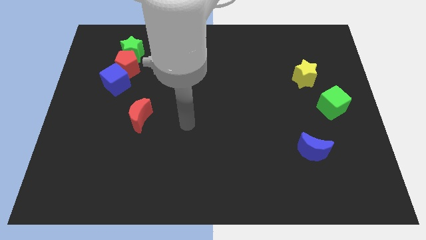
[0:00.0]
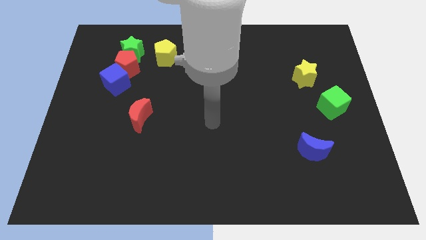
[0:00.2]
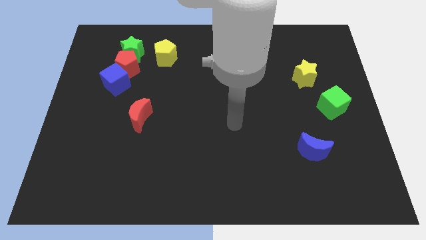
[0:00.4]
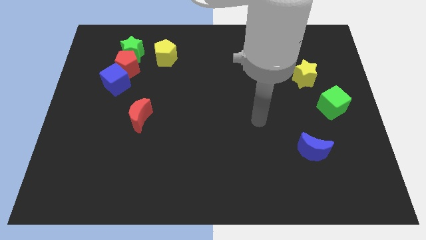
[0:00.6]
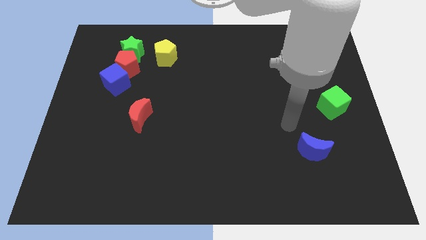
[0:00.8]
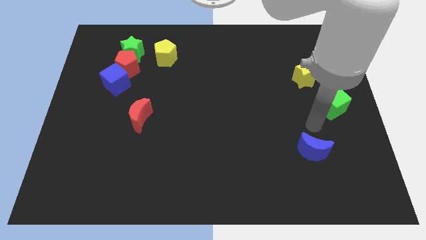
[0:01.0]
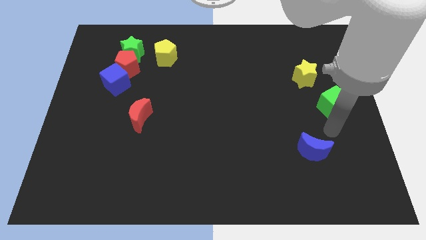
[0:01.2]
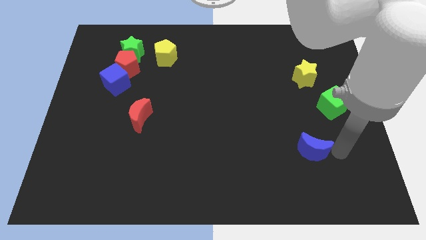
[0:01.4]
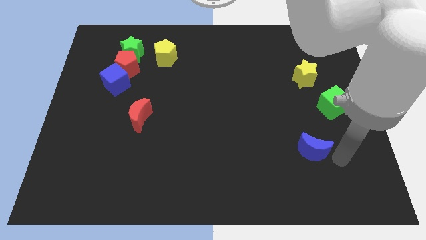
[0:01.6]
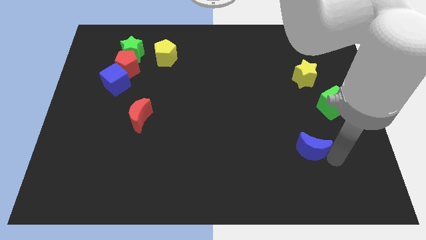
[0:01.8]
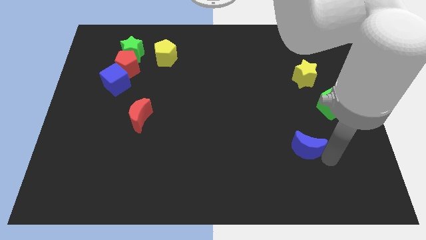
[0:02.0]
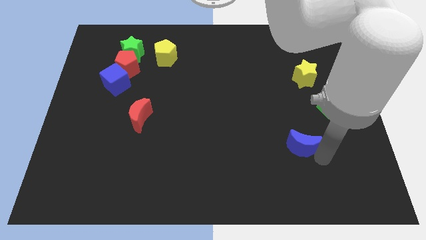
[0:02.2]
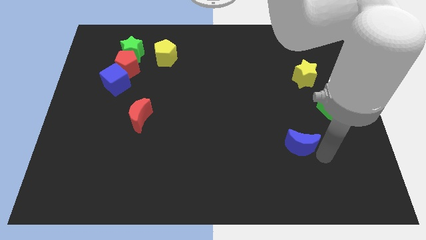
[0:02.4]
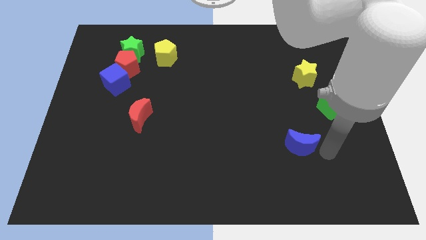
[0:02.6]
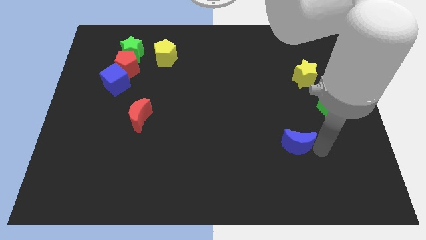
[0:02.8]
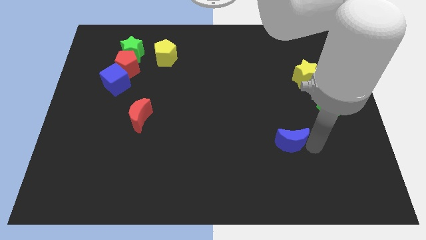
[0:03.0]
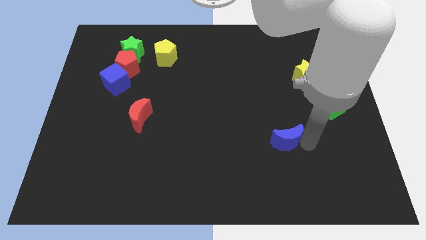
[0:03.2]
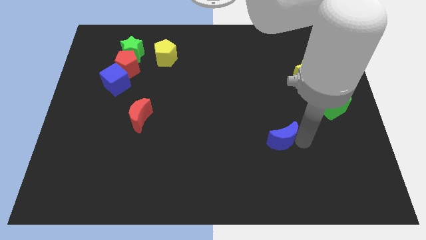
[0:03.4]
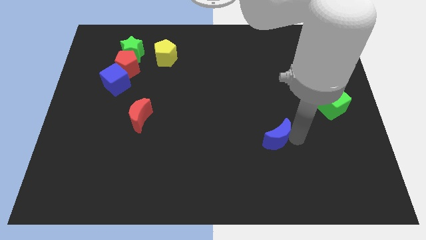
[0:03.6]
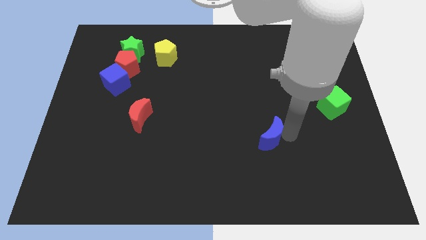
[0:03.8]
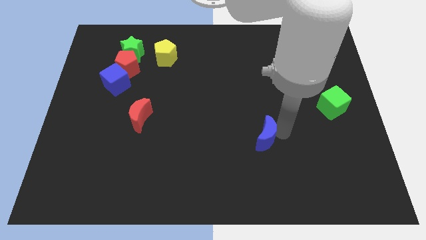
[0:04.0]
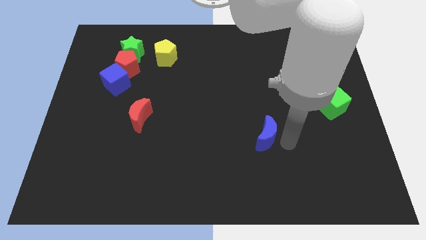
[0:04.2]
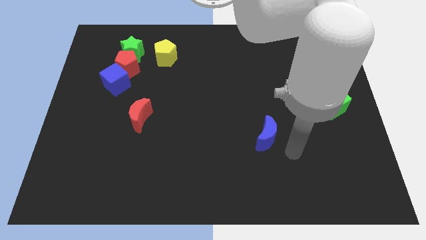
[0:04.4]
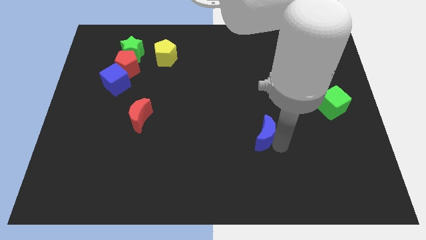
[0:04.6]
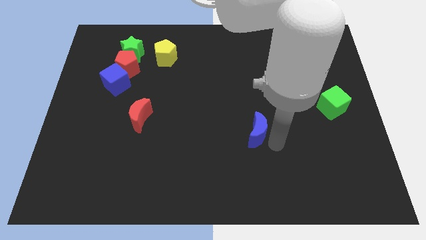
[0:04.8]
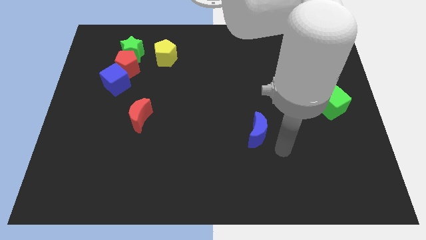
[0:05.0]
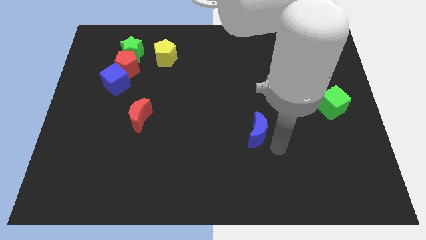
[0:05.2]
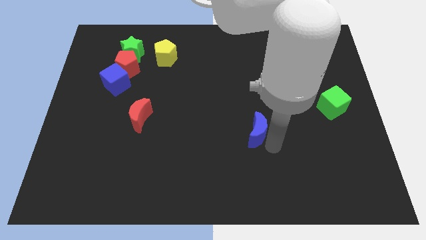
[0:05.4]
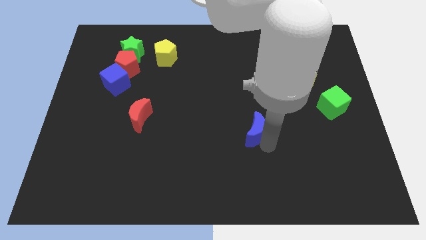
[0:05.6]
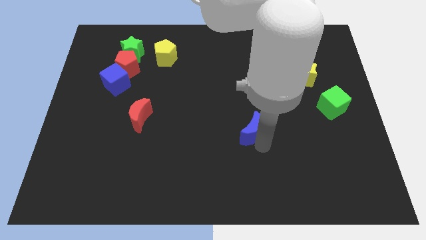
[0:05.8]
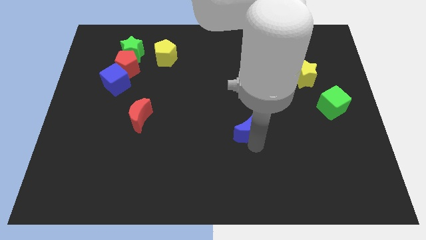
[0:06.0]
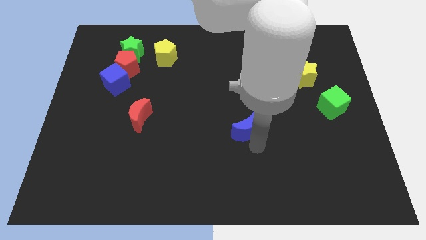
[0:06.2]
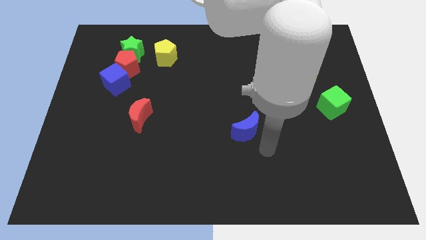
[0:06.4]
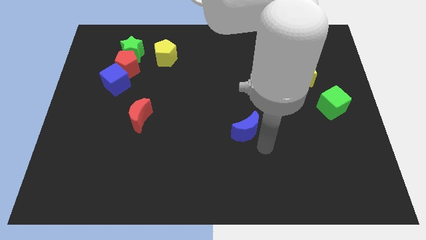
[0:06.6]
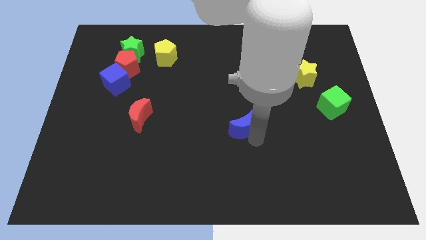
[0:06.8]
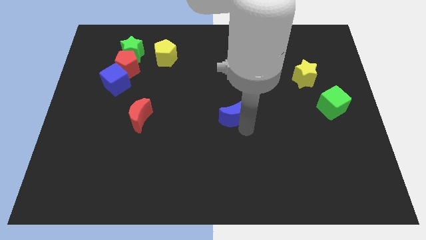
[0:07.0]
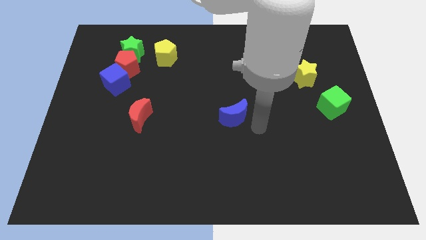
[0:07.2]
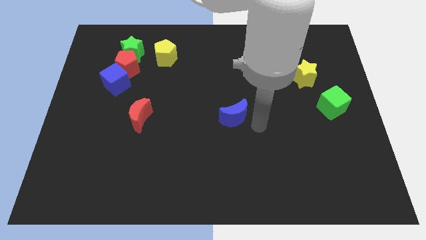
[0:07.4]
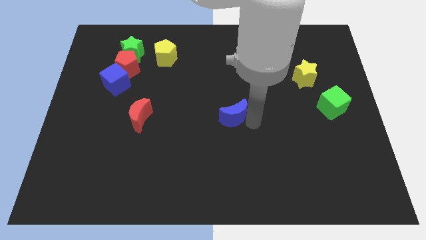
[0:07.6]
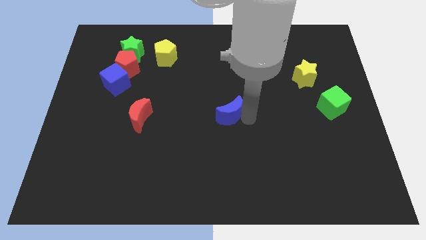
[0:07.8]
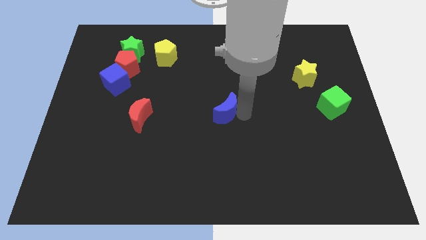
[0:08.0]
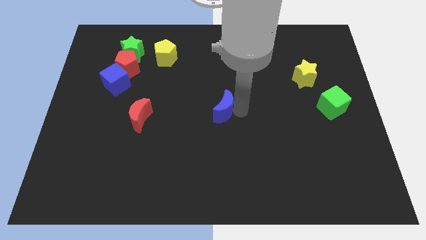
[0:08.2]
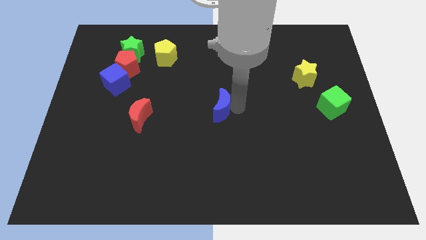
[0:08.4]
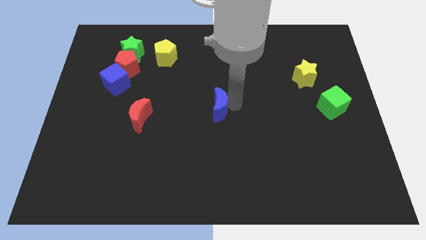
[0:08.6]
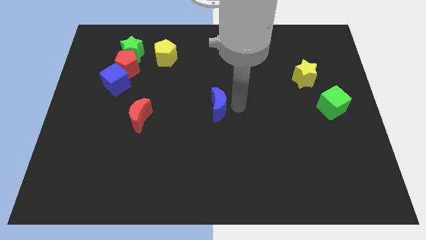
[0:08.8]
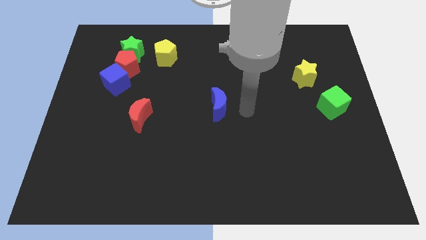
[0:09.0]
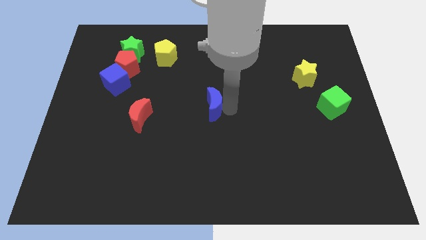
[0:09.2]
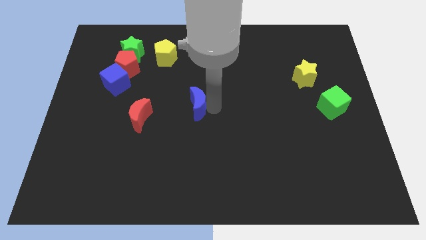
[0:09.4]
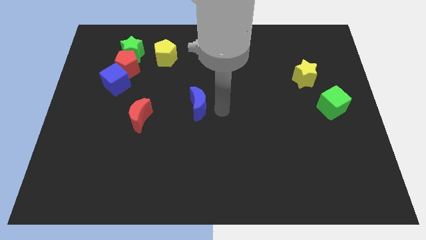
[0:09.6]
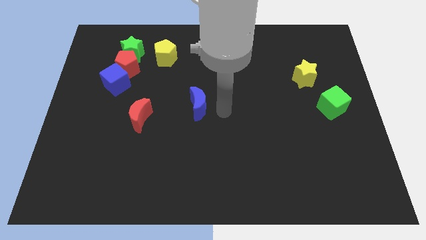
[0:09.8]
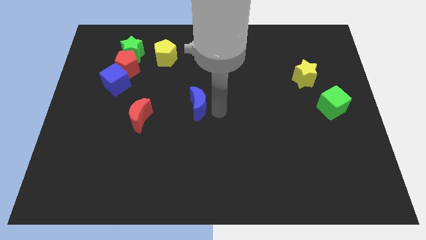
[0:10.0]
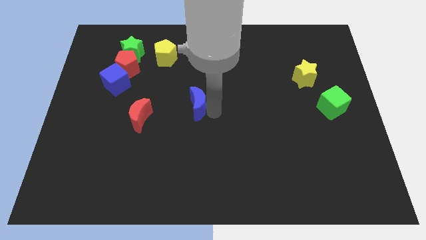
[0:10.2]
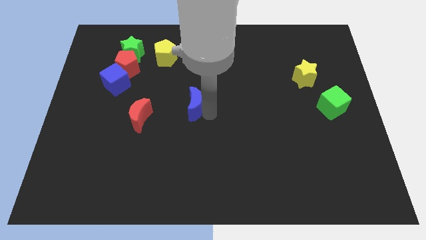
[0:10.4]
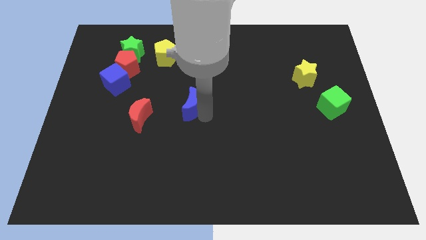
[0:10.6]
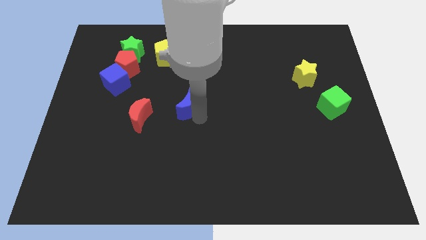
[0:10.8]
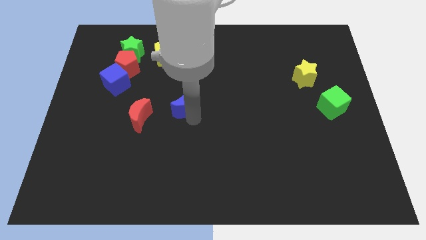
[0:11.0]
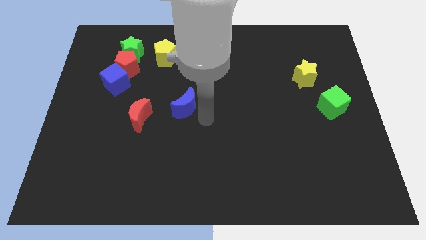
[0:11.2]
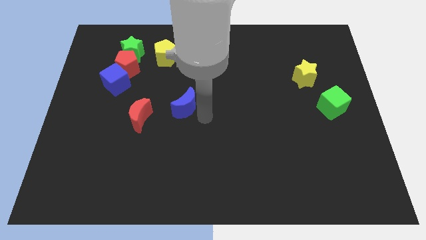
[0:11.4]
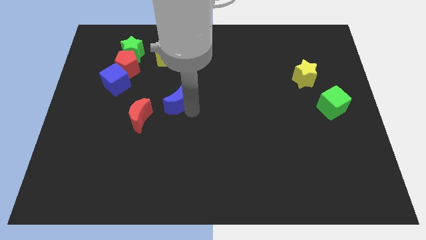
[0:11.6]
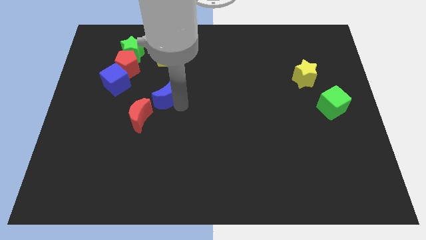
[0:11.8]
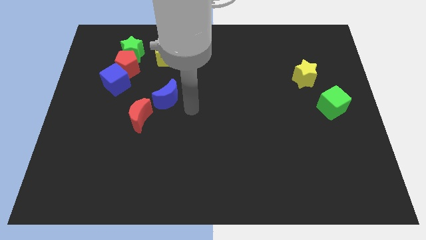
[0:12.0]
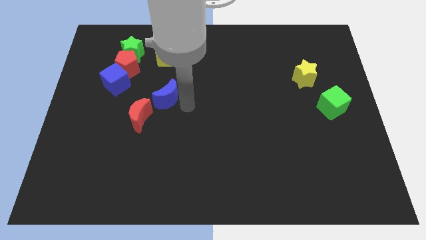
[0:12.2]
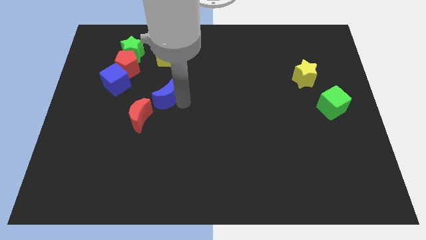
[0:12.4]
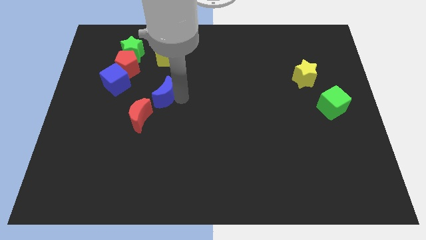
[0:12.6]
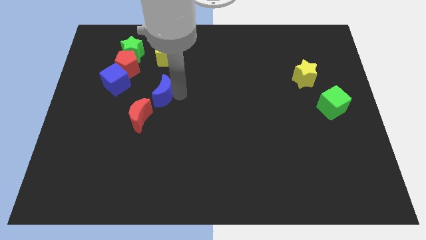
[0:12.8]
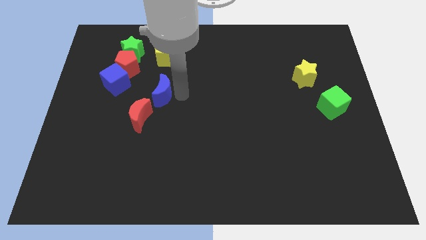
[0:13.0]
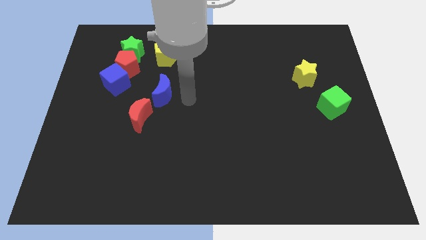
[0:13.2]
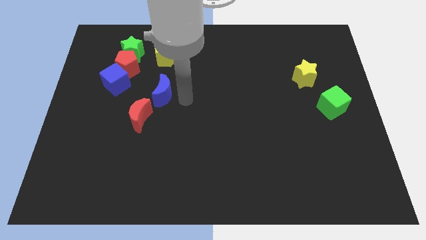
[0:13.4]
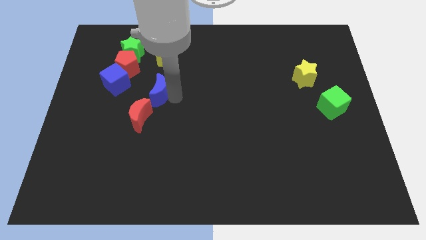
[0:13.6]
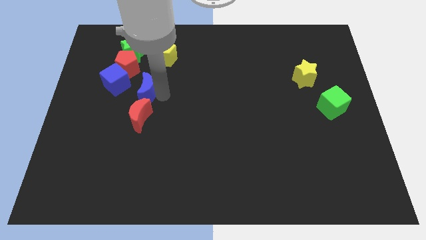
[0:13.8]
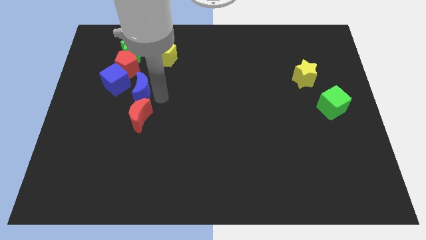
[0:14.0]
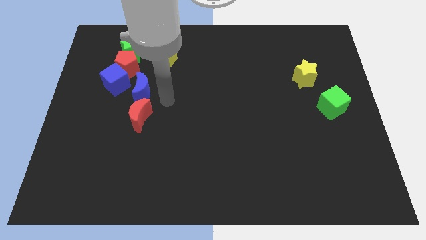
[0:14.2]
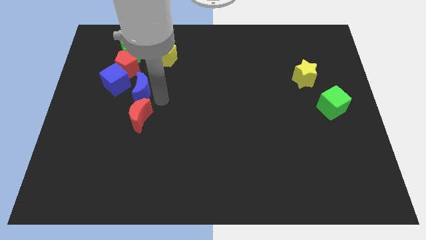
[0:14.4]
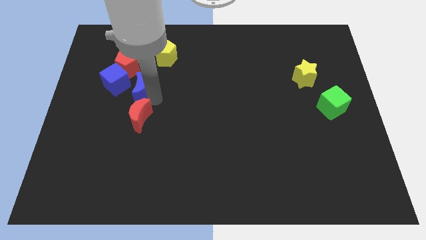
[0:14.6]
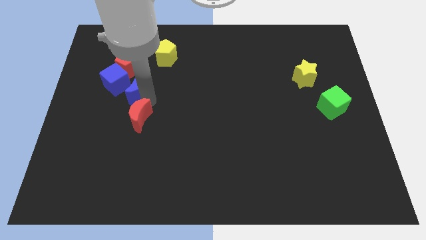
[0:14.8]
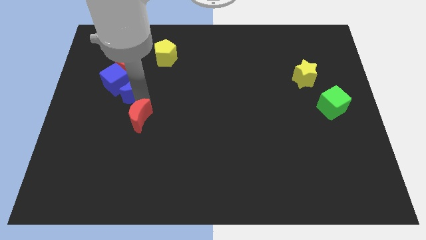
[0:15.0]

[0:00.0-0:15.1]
move the blue moon towards the blue cube
